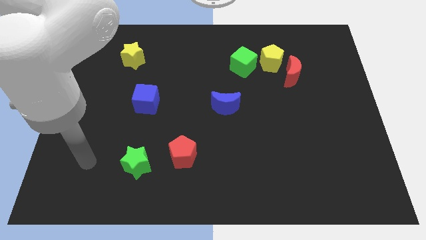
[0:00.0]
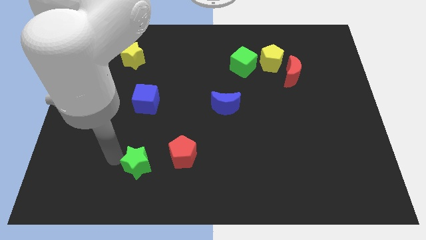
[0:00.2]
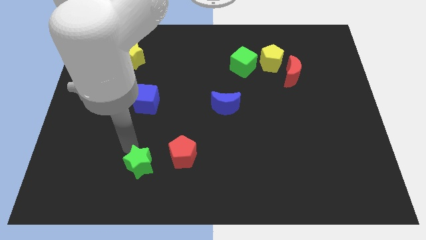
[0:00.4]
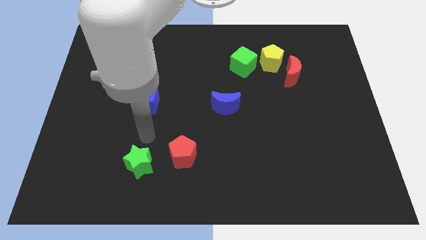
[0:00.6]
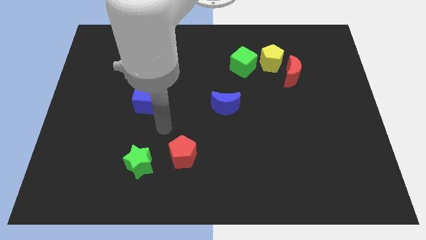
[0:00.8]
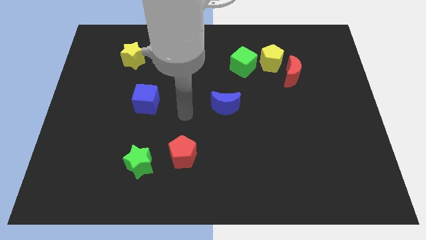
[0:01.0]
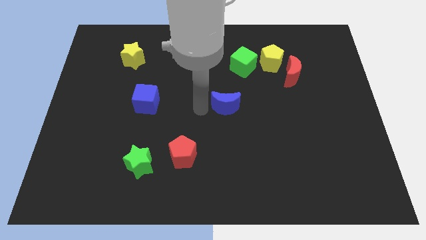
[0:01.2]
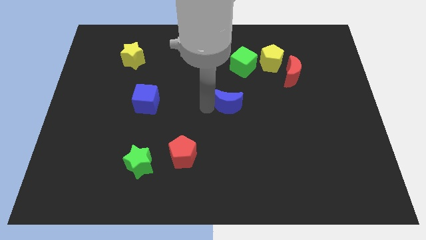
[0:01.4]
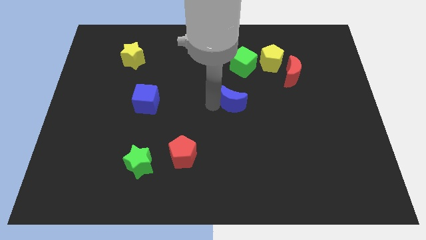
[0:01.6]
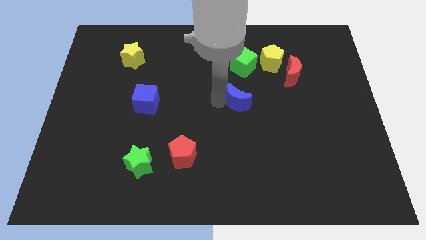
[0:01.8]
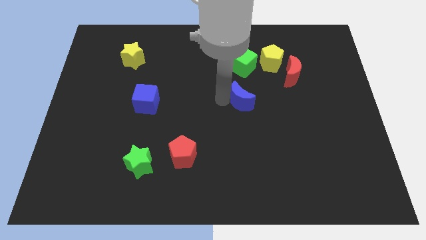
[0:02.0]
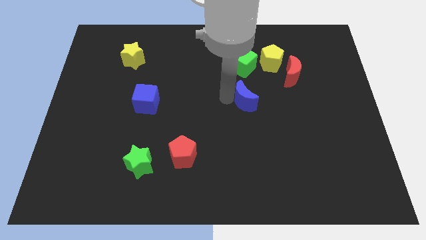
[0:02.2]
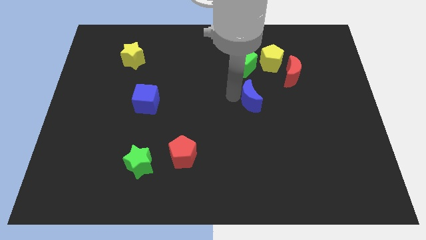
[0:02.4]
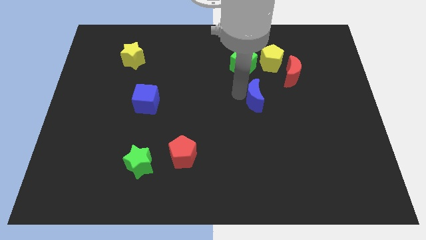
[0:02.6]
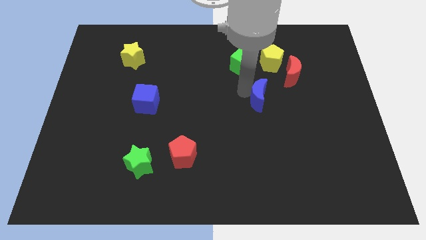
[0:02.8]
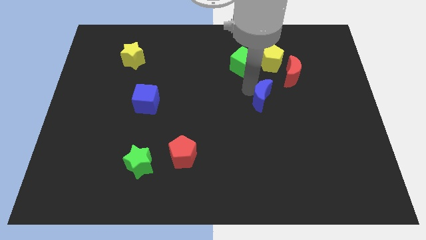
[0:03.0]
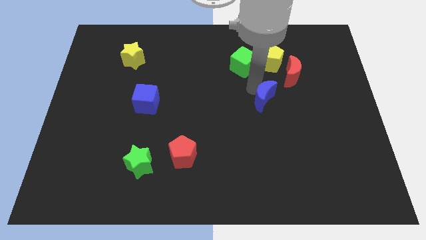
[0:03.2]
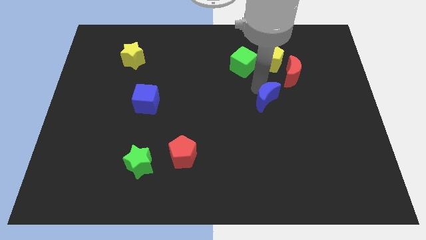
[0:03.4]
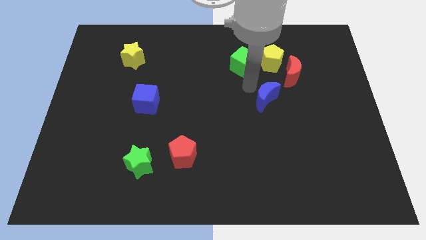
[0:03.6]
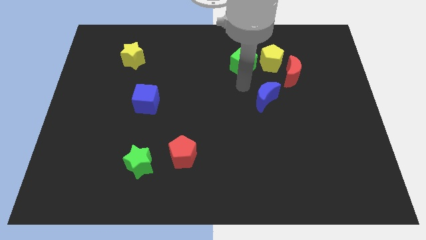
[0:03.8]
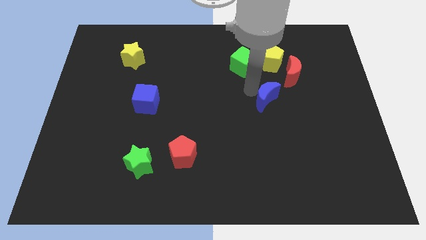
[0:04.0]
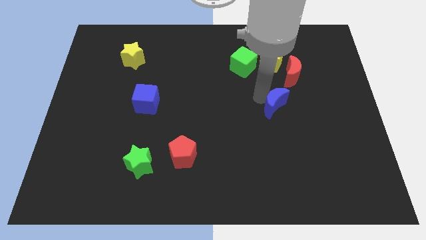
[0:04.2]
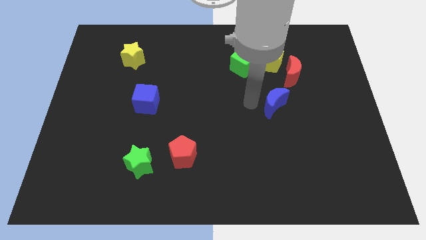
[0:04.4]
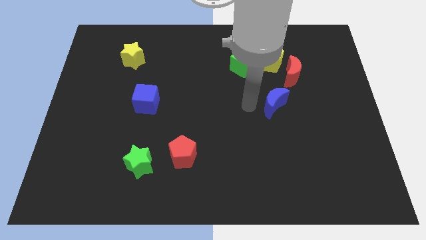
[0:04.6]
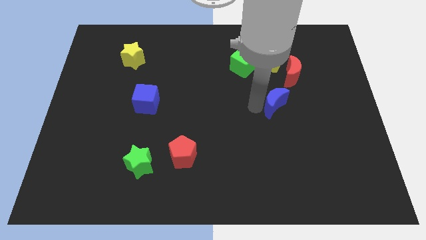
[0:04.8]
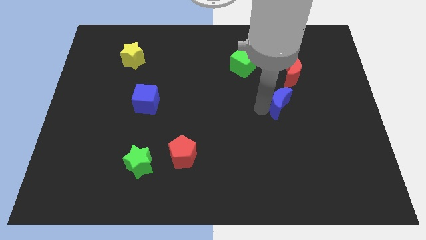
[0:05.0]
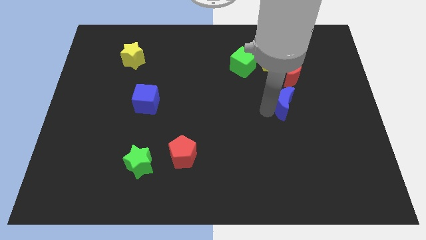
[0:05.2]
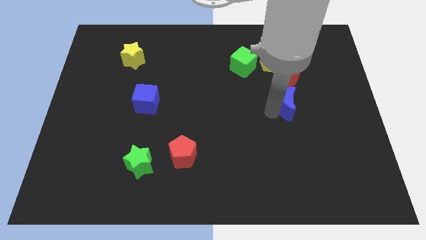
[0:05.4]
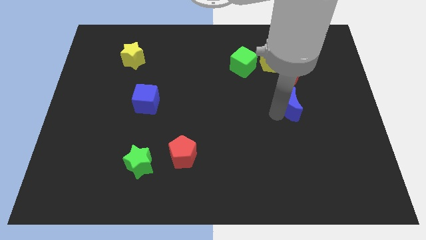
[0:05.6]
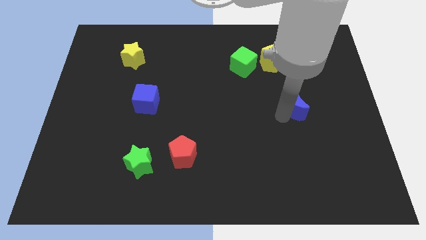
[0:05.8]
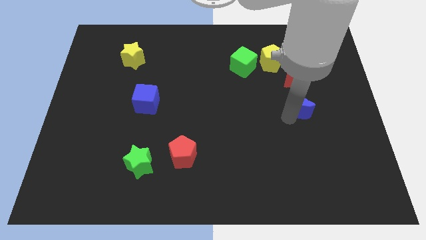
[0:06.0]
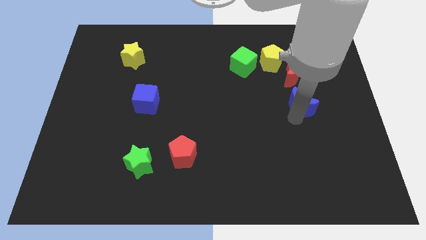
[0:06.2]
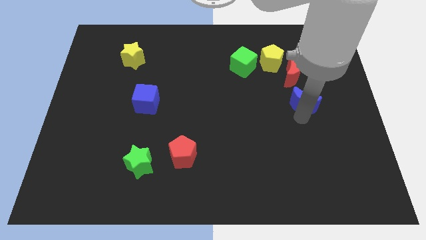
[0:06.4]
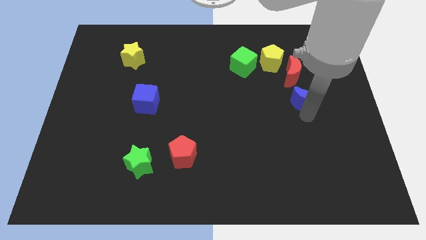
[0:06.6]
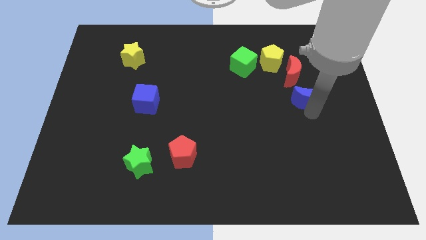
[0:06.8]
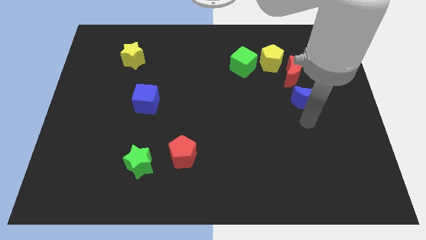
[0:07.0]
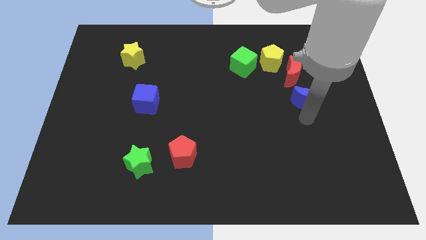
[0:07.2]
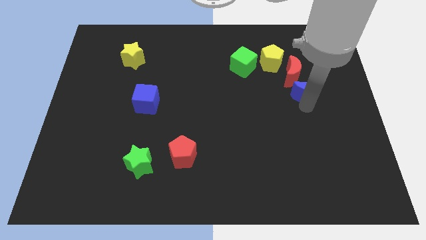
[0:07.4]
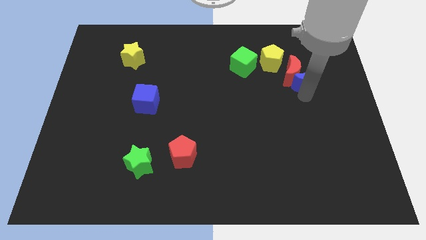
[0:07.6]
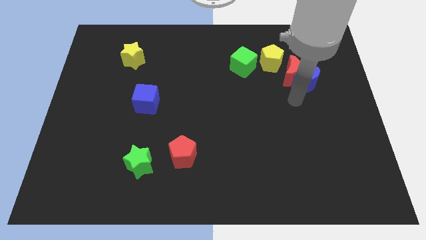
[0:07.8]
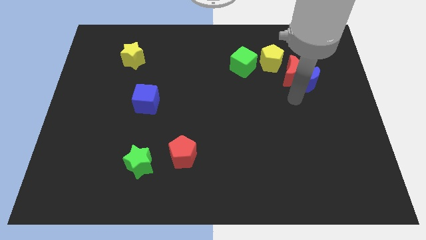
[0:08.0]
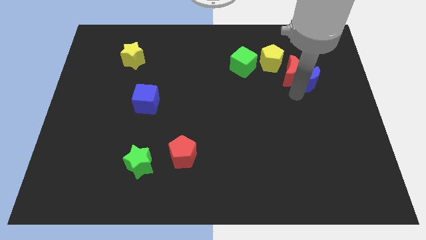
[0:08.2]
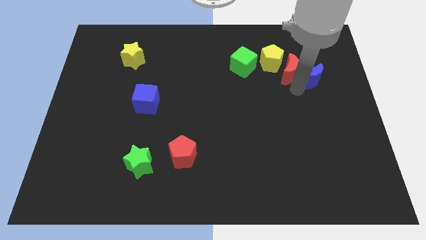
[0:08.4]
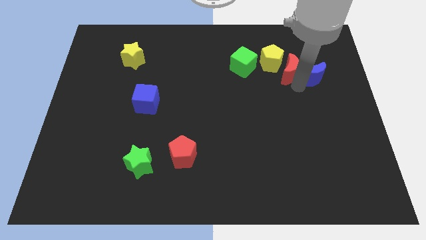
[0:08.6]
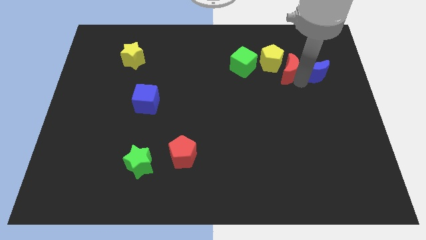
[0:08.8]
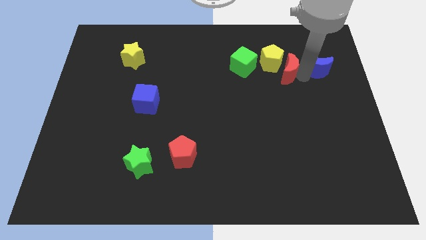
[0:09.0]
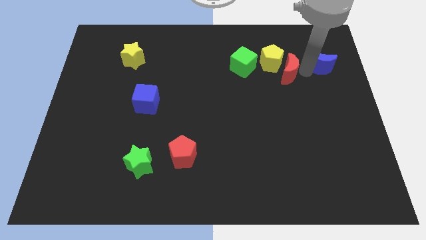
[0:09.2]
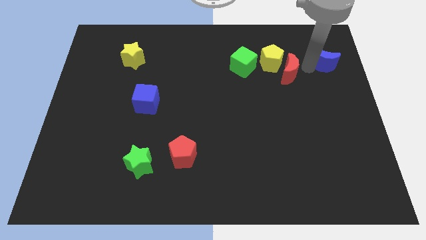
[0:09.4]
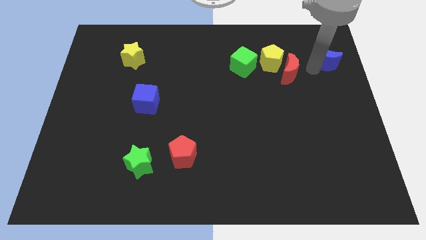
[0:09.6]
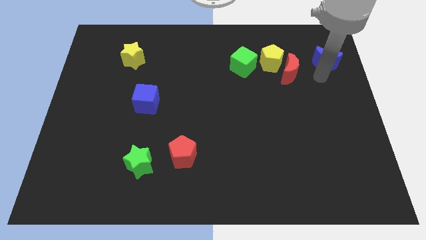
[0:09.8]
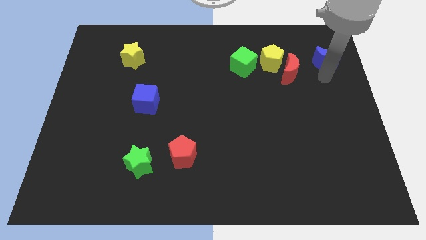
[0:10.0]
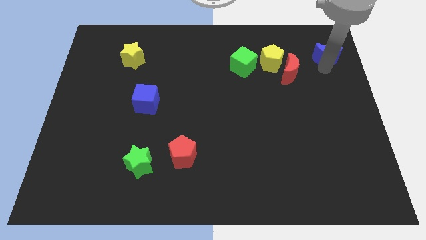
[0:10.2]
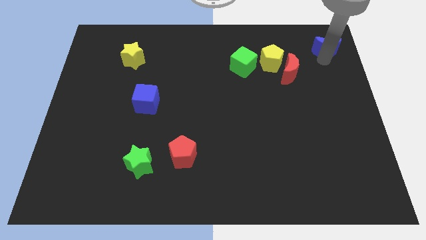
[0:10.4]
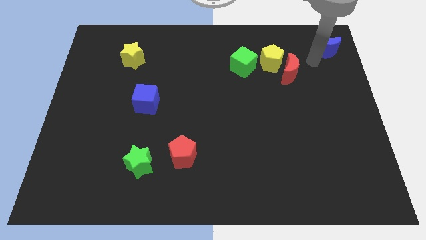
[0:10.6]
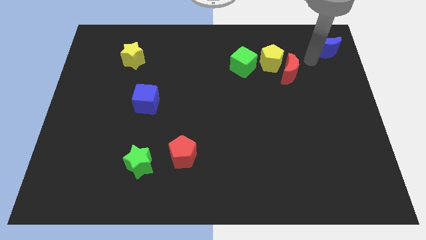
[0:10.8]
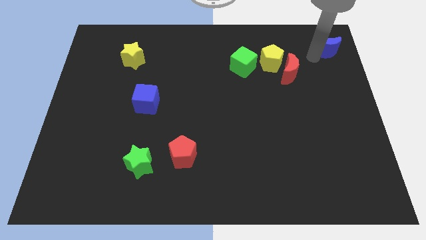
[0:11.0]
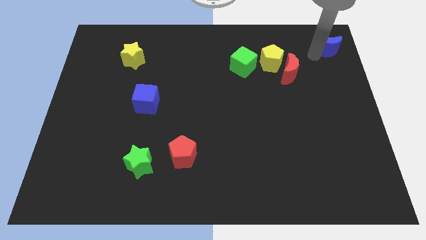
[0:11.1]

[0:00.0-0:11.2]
put the blue moon to the top right corner
